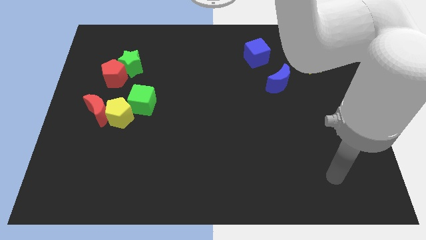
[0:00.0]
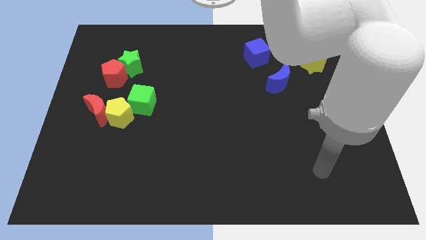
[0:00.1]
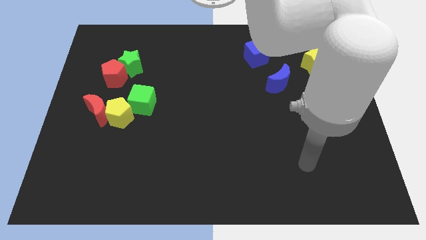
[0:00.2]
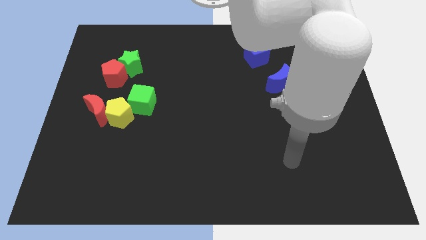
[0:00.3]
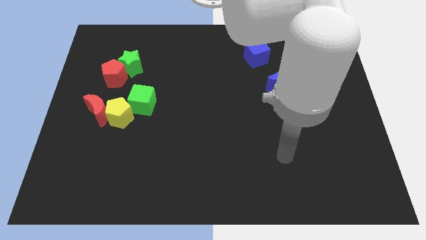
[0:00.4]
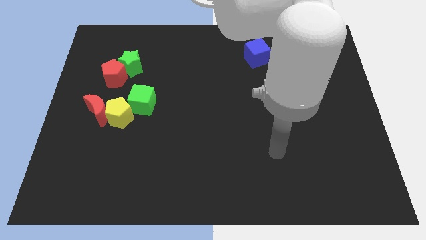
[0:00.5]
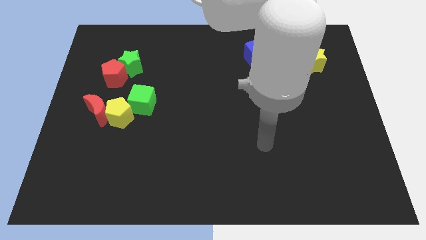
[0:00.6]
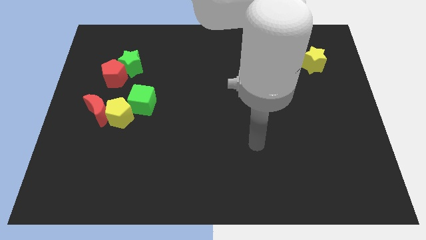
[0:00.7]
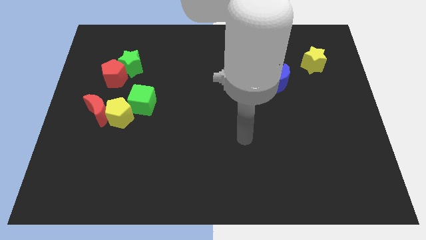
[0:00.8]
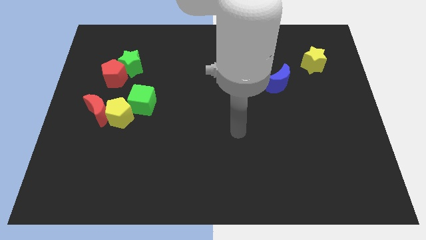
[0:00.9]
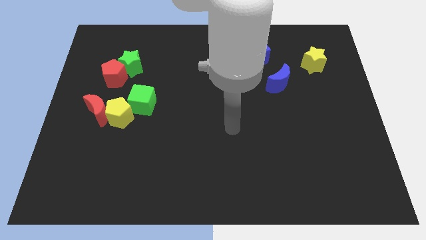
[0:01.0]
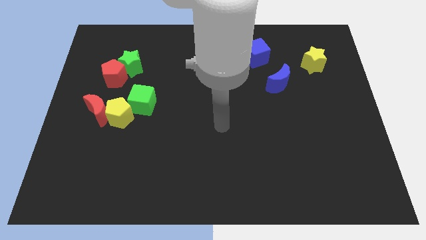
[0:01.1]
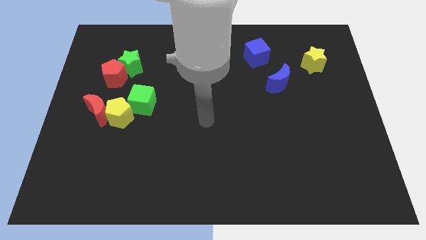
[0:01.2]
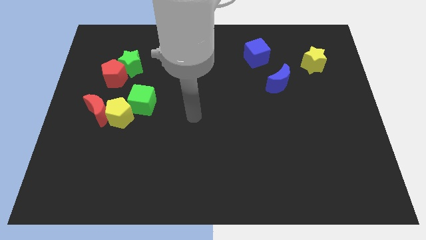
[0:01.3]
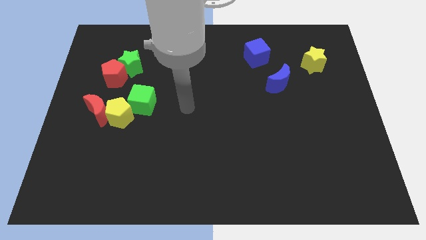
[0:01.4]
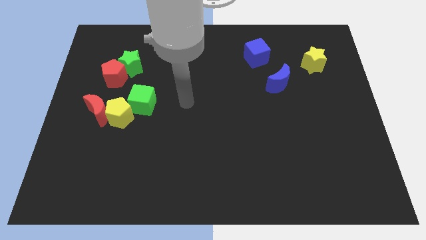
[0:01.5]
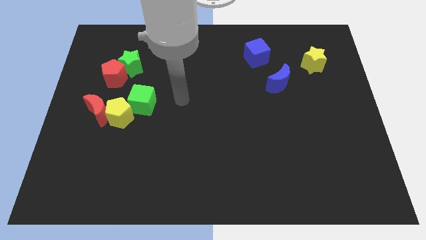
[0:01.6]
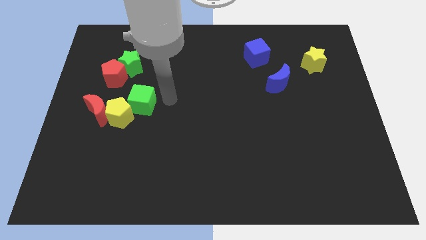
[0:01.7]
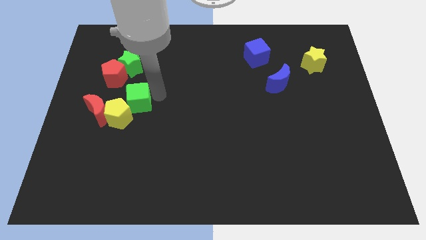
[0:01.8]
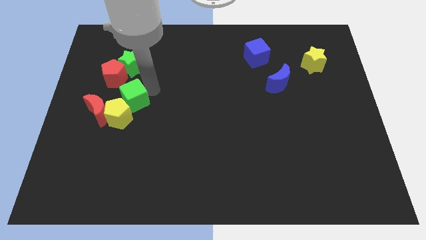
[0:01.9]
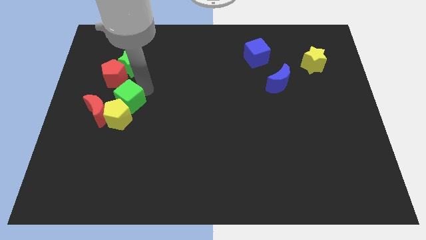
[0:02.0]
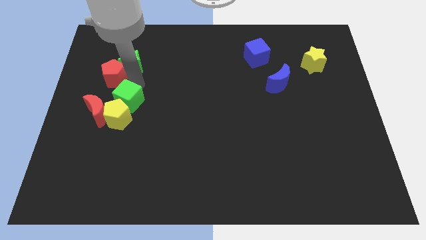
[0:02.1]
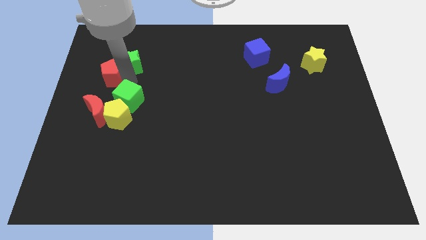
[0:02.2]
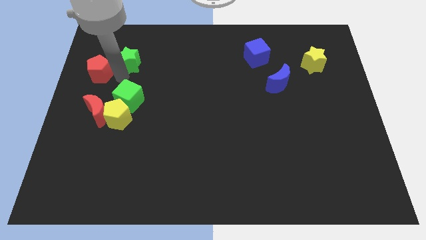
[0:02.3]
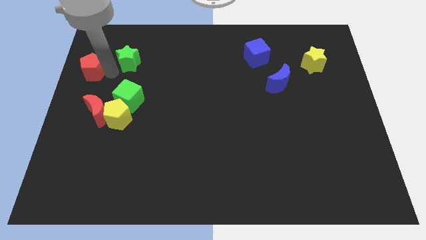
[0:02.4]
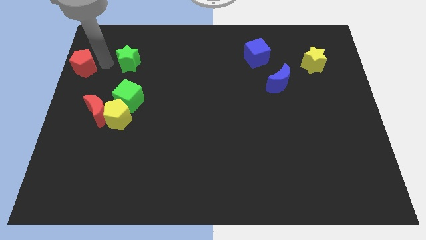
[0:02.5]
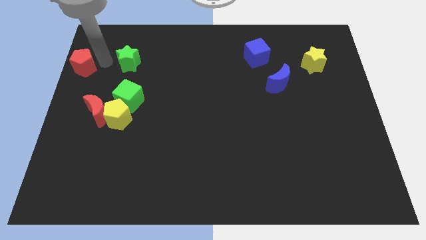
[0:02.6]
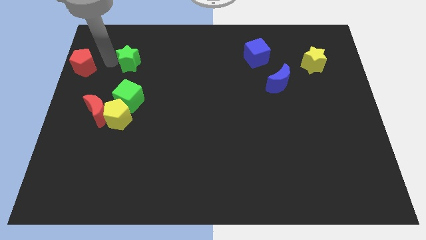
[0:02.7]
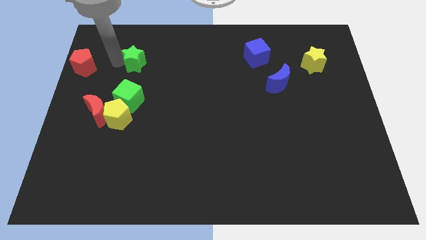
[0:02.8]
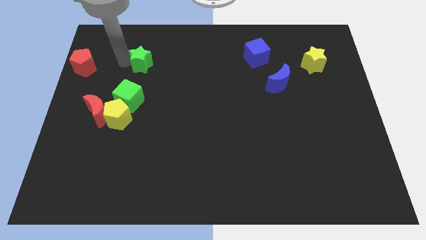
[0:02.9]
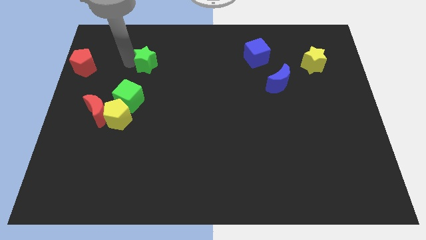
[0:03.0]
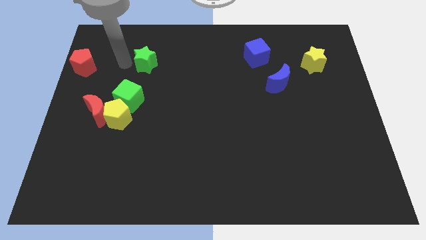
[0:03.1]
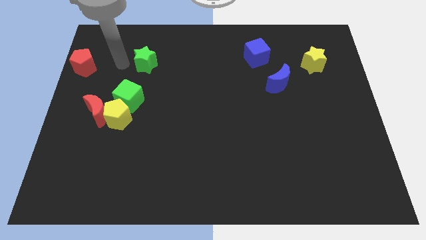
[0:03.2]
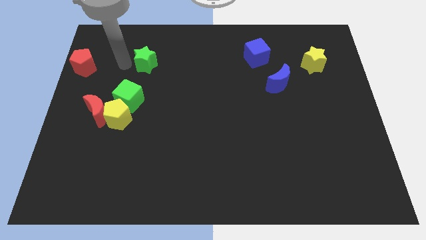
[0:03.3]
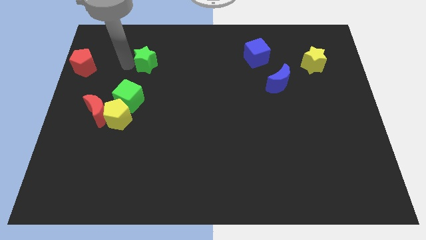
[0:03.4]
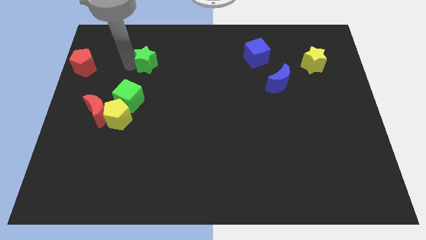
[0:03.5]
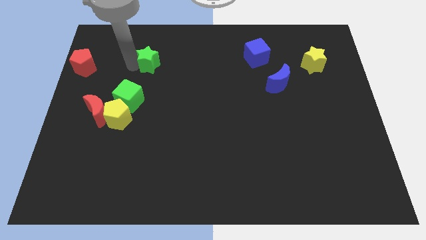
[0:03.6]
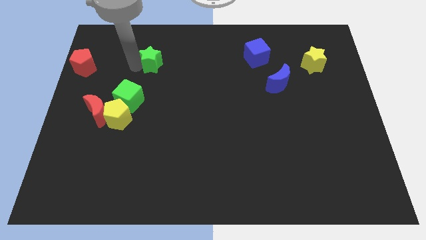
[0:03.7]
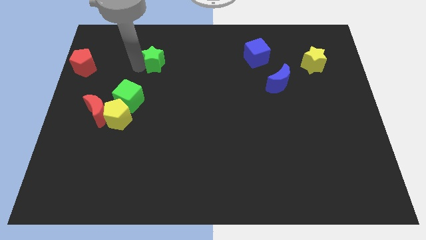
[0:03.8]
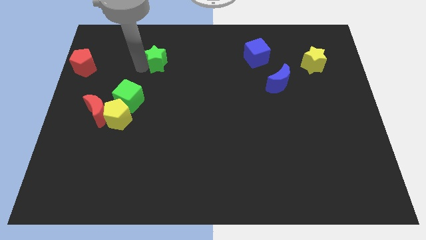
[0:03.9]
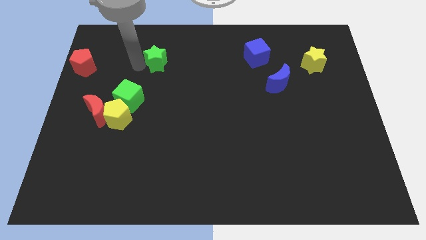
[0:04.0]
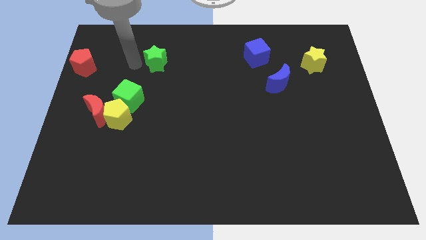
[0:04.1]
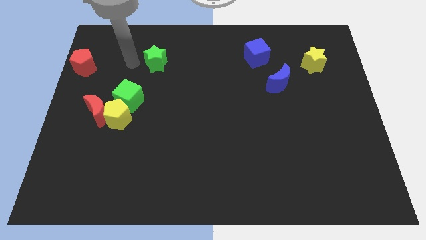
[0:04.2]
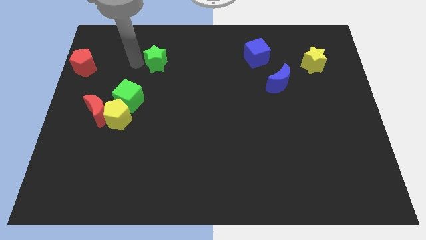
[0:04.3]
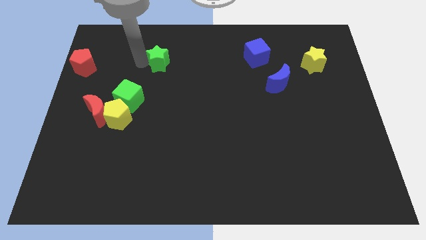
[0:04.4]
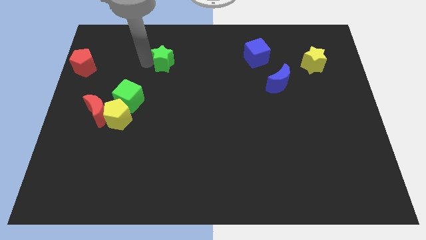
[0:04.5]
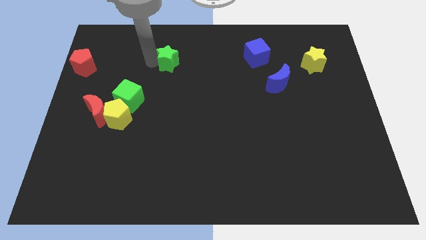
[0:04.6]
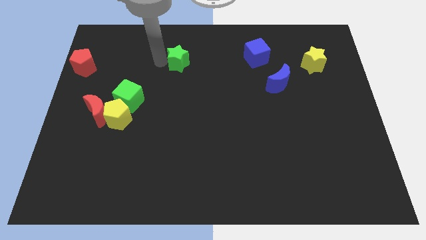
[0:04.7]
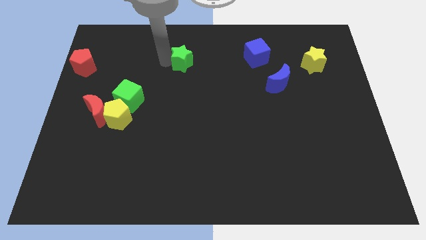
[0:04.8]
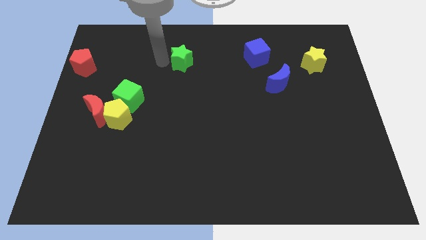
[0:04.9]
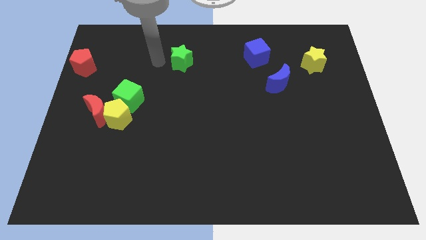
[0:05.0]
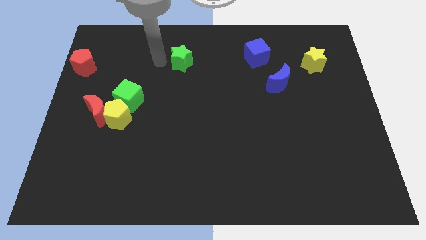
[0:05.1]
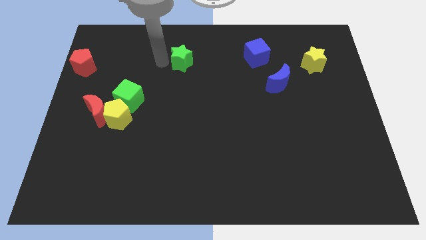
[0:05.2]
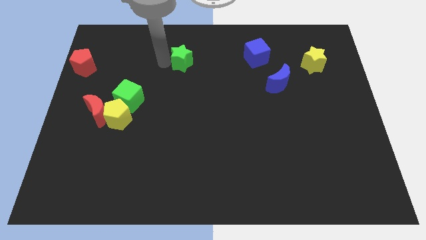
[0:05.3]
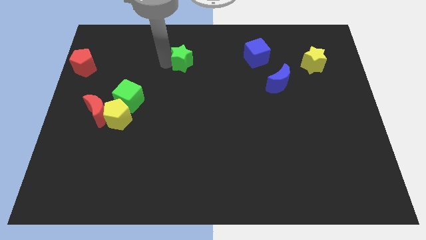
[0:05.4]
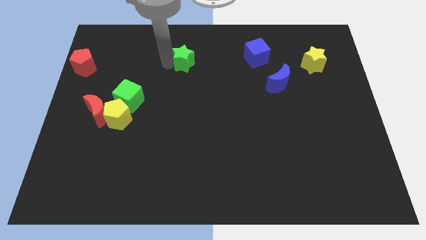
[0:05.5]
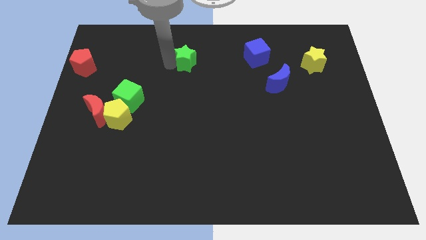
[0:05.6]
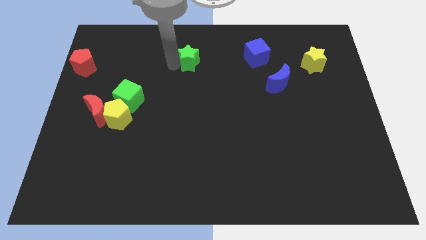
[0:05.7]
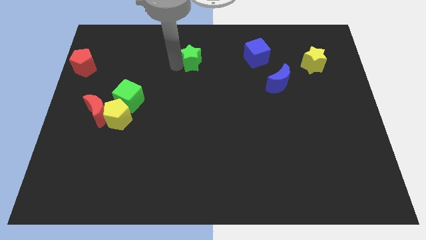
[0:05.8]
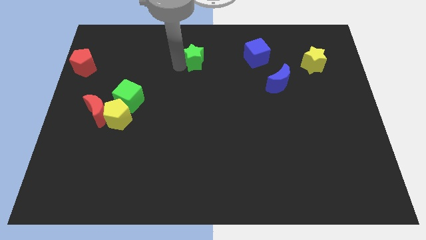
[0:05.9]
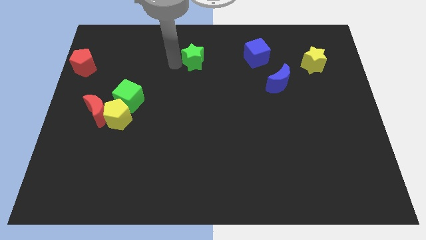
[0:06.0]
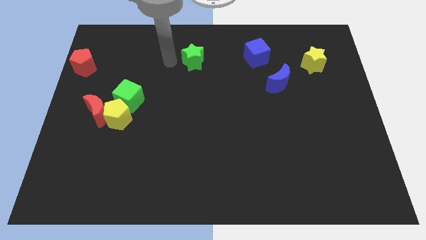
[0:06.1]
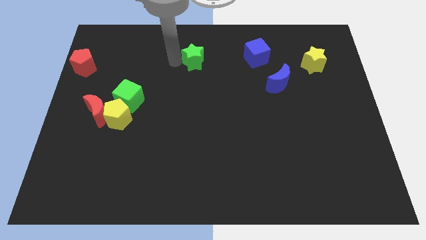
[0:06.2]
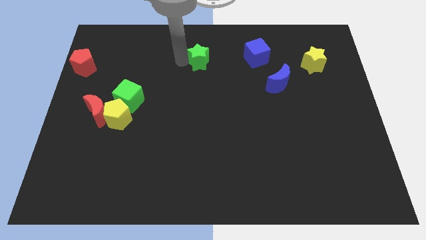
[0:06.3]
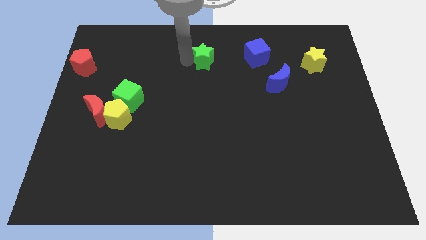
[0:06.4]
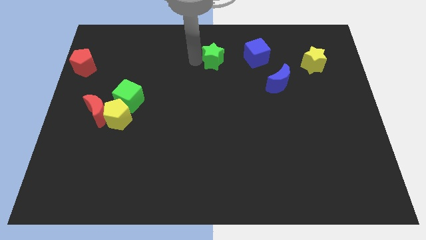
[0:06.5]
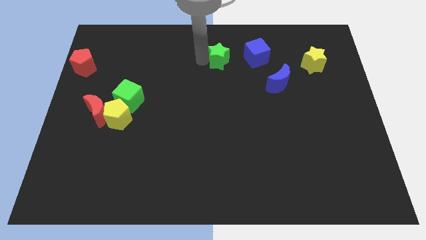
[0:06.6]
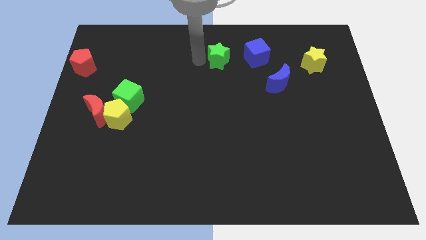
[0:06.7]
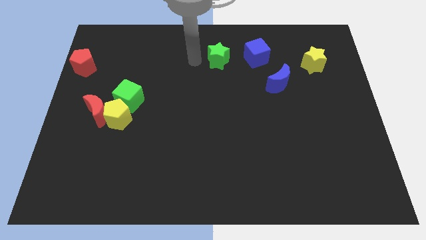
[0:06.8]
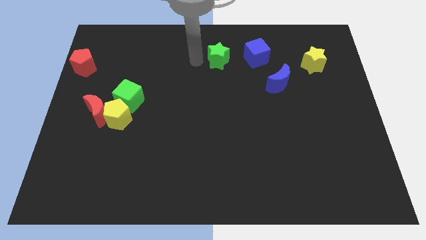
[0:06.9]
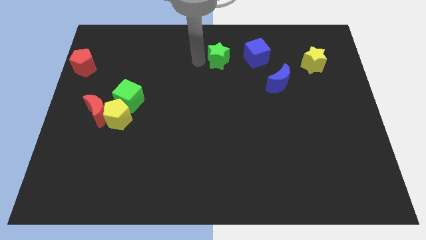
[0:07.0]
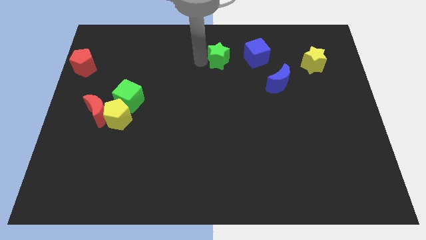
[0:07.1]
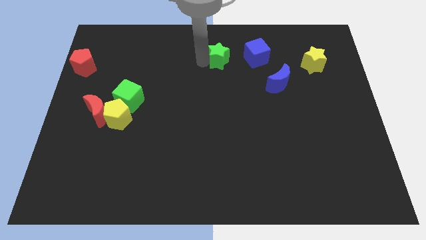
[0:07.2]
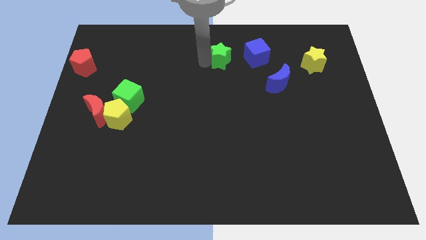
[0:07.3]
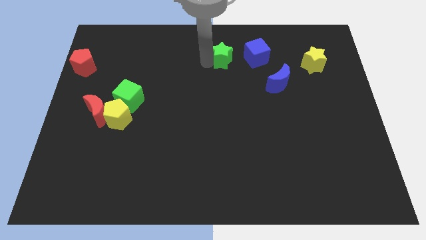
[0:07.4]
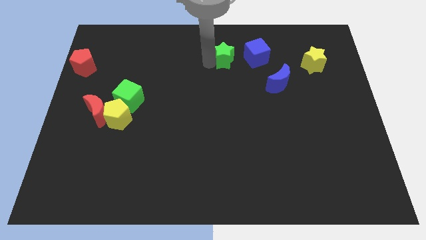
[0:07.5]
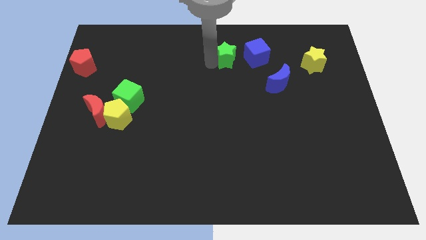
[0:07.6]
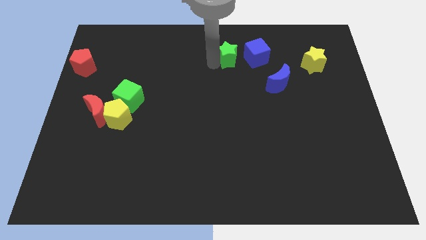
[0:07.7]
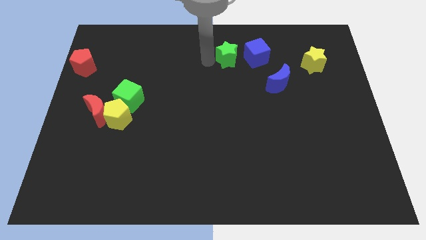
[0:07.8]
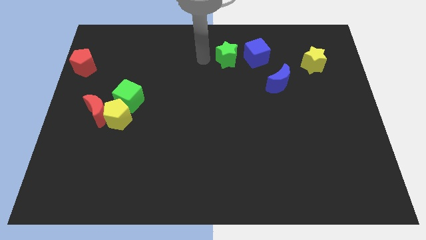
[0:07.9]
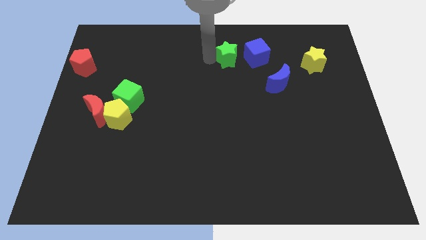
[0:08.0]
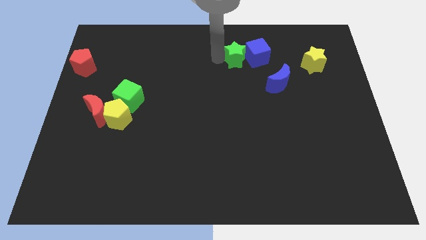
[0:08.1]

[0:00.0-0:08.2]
put the green star next to the blue cube
